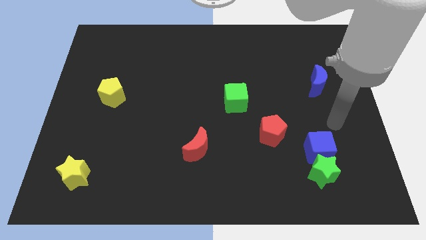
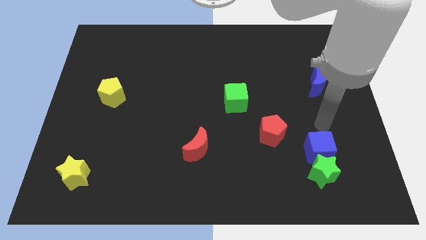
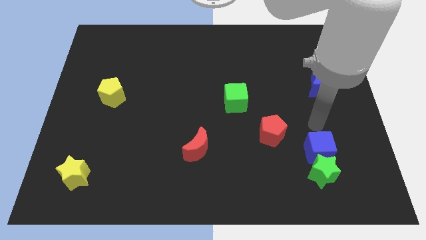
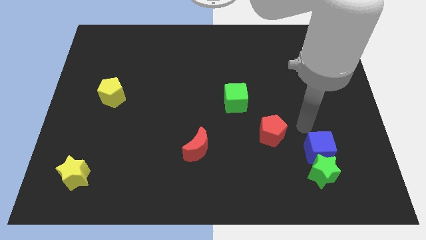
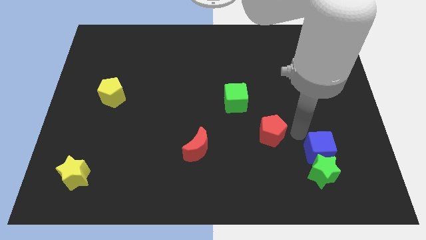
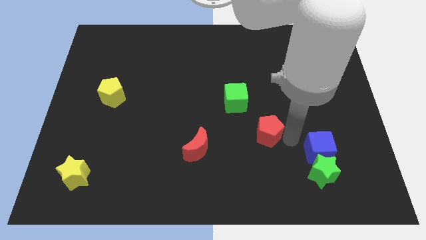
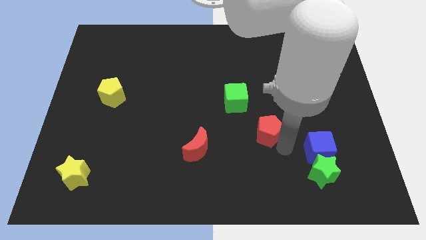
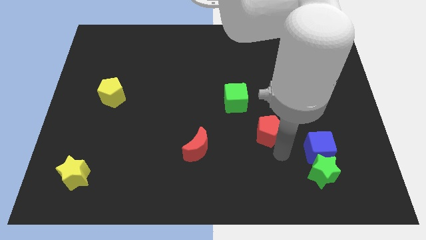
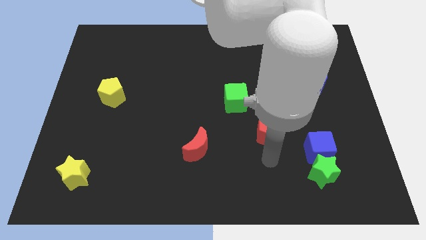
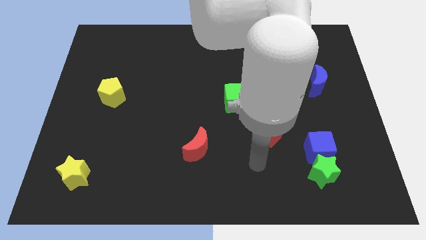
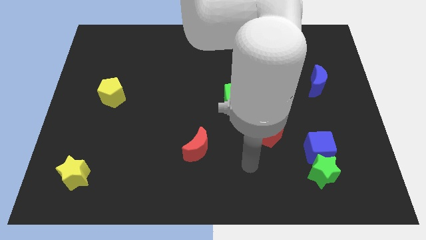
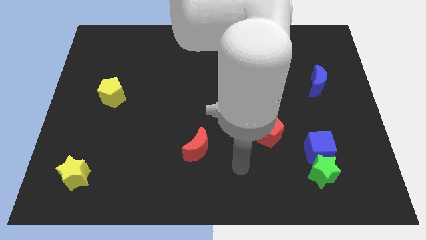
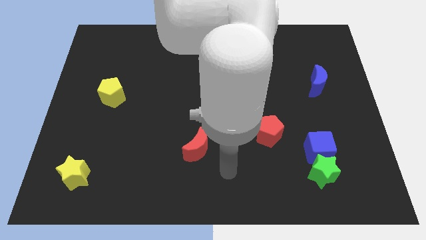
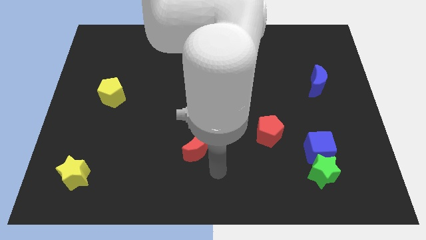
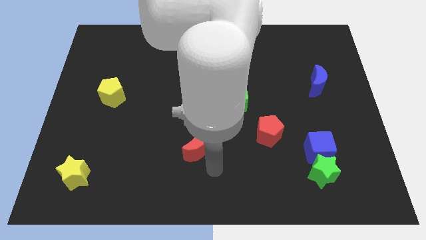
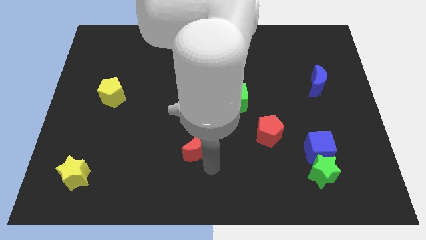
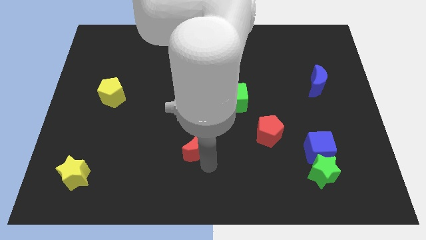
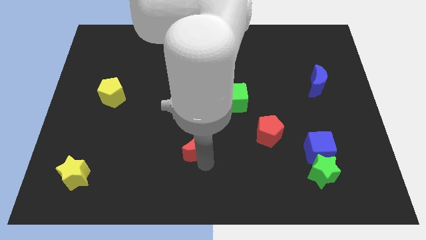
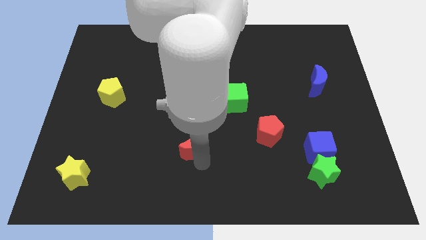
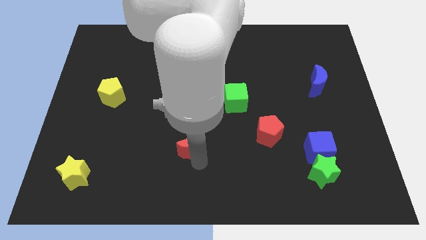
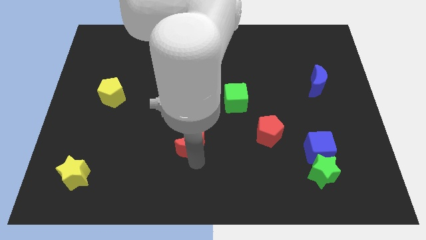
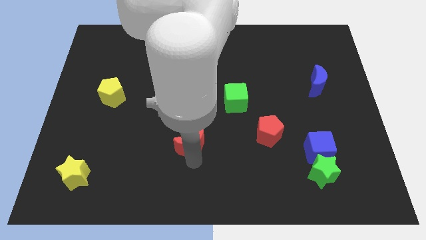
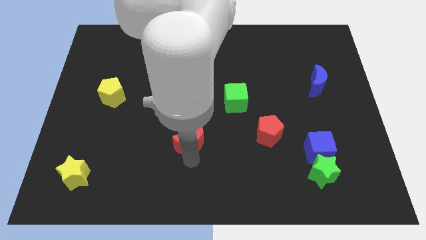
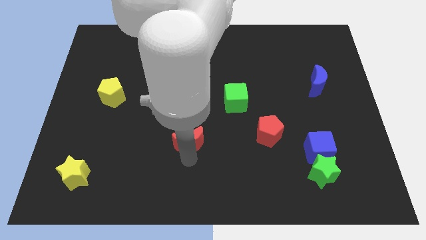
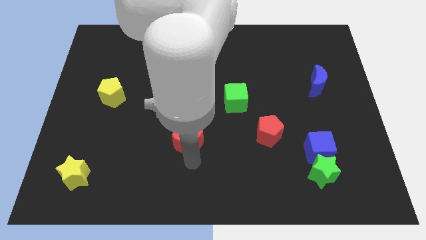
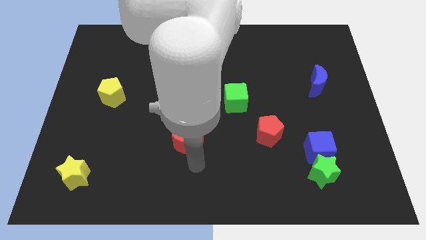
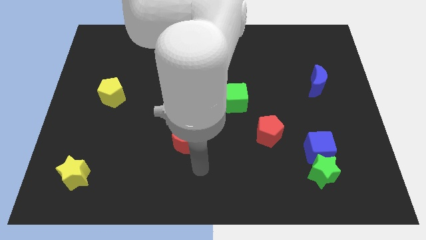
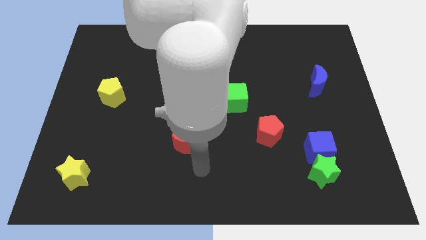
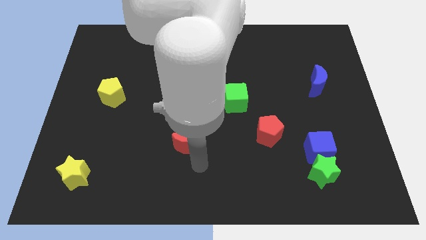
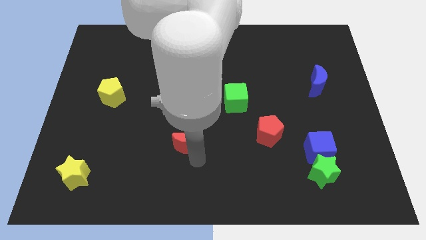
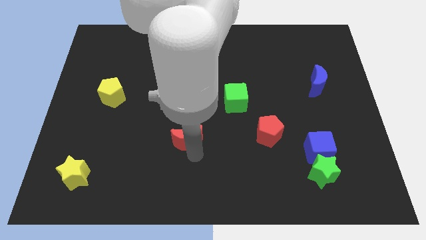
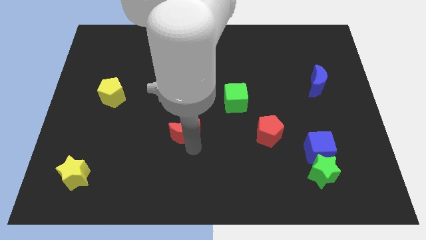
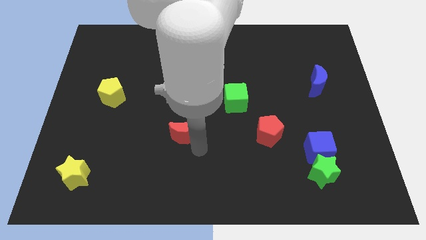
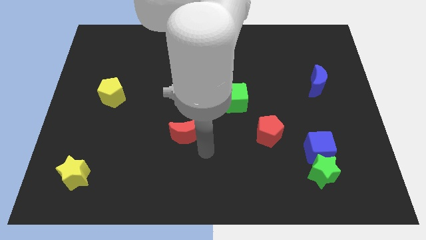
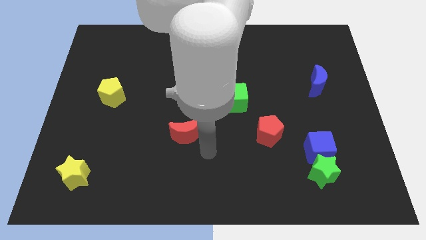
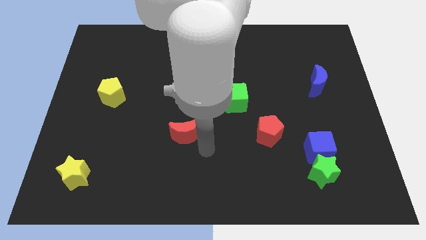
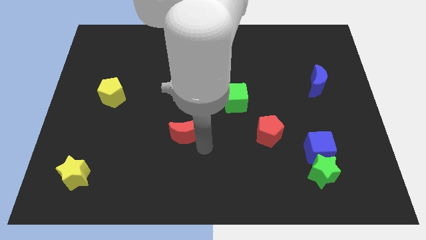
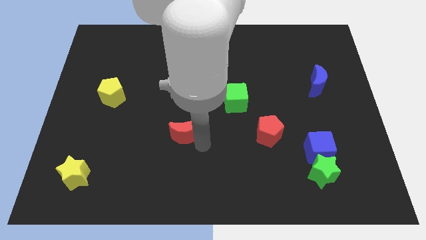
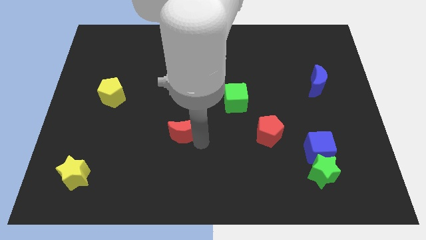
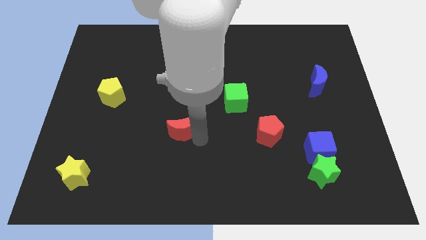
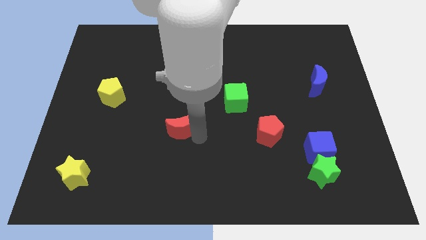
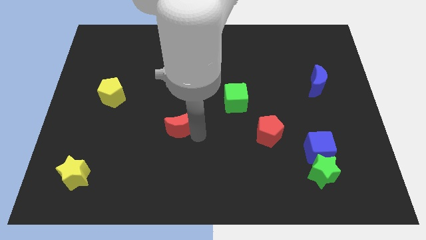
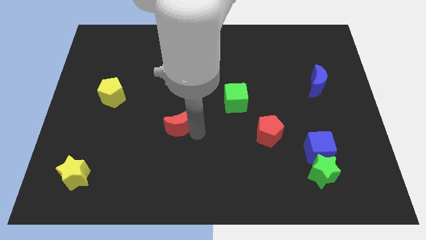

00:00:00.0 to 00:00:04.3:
push the red moon upwards and to the left a little bit

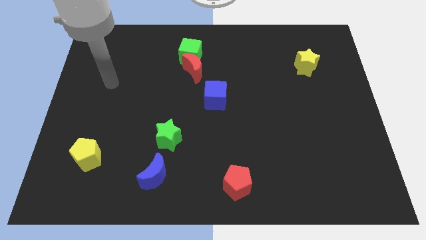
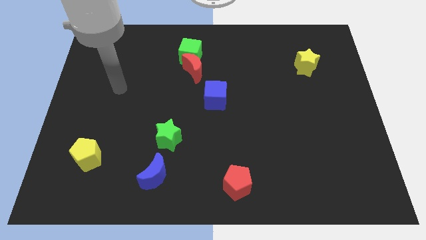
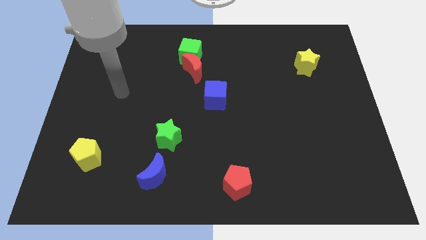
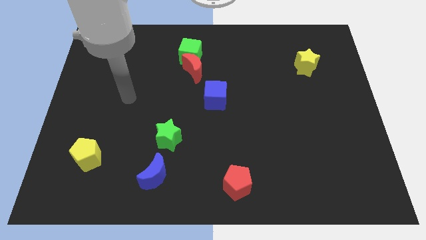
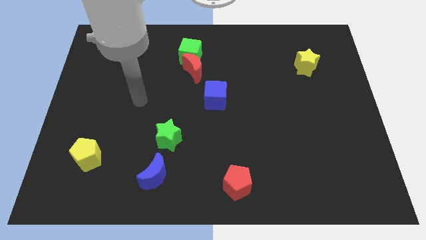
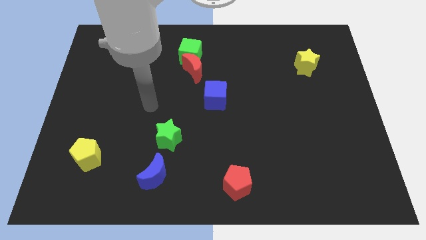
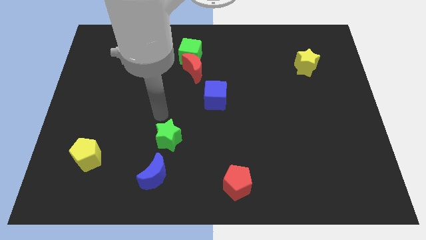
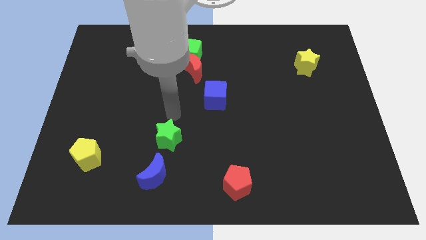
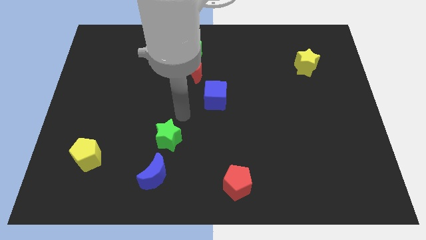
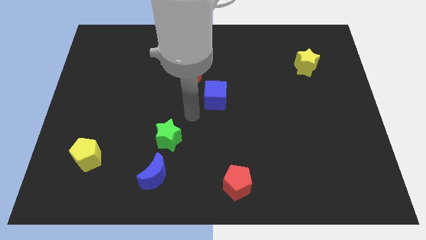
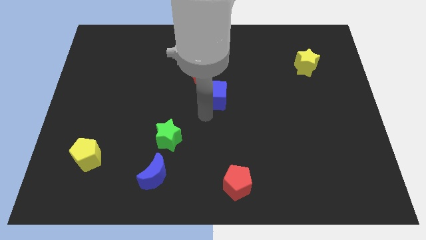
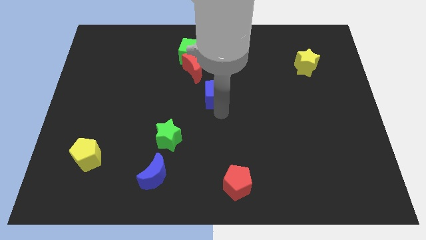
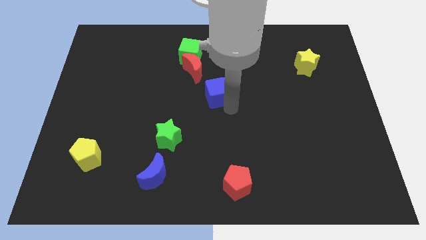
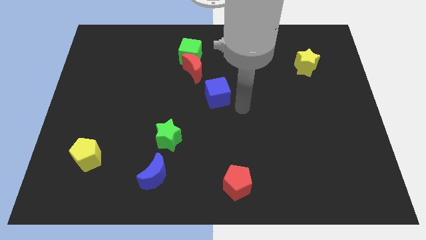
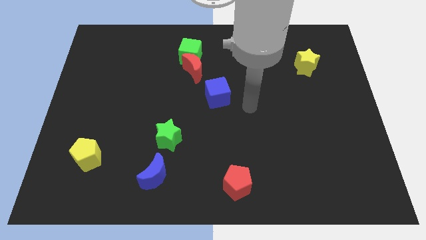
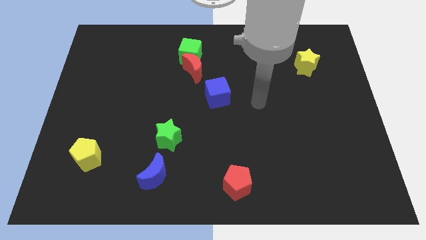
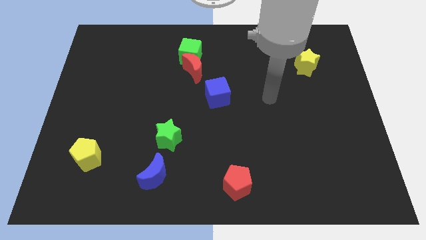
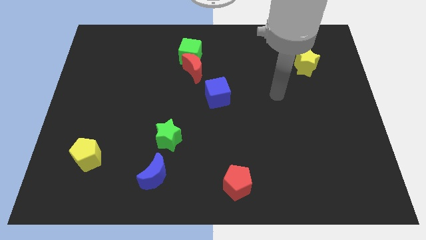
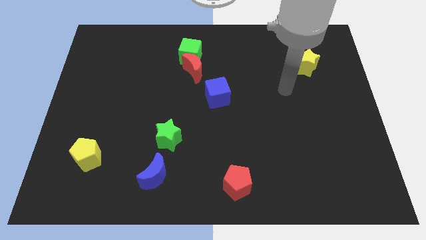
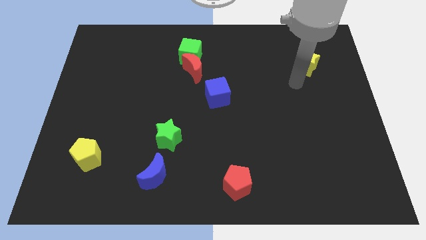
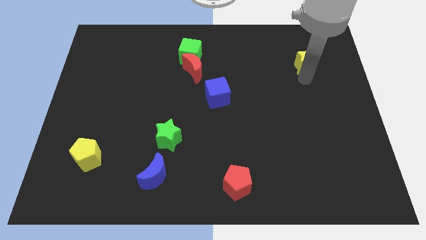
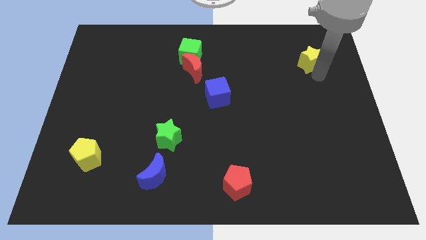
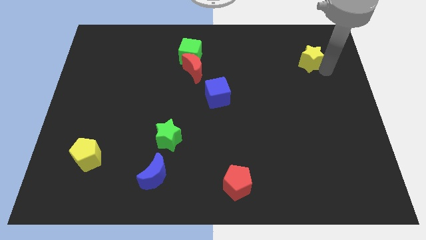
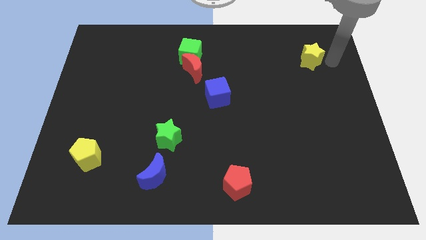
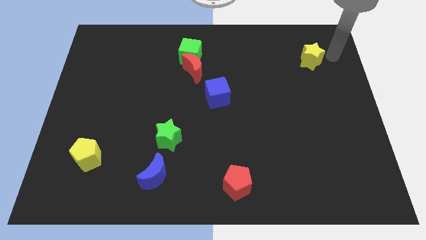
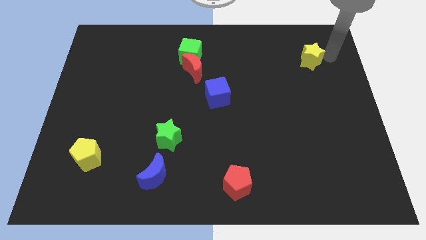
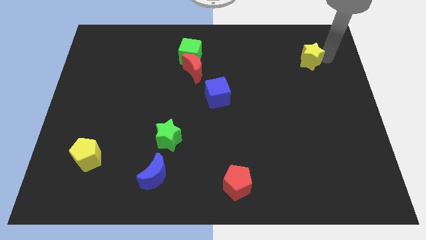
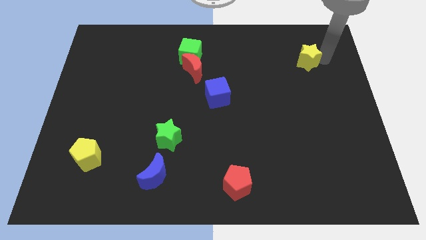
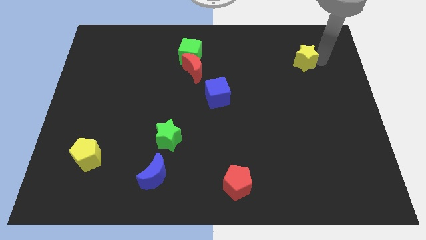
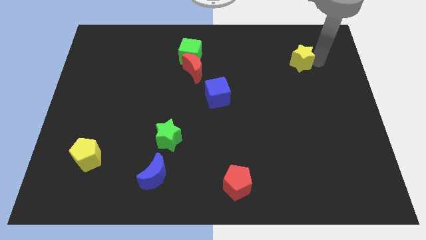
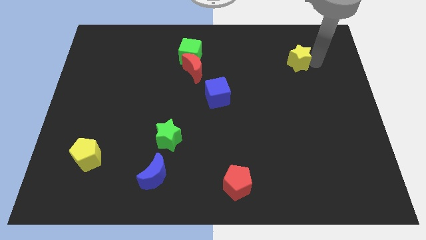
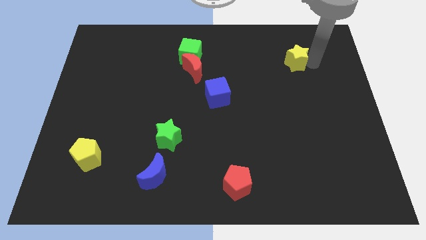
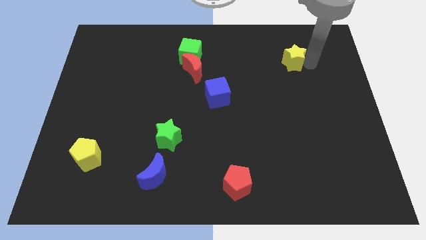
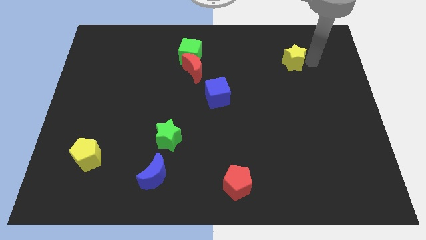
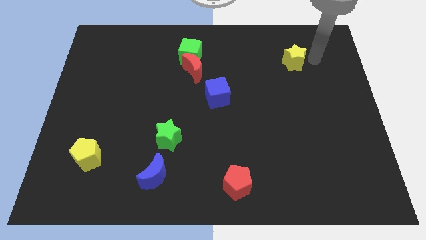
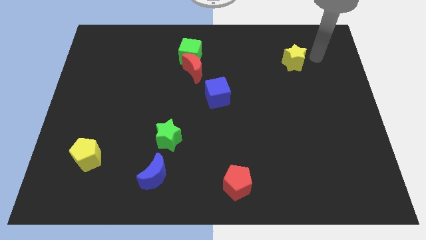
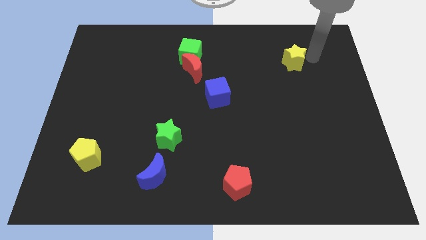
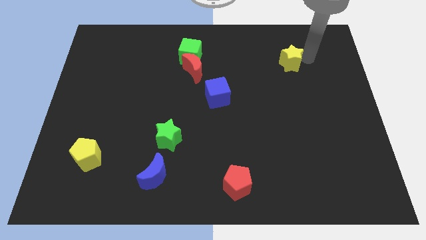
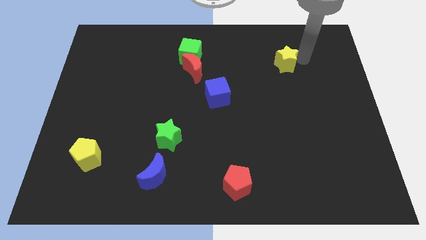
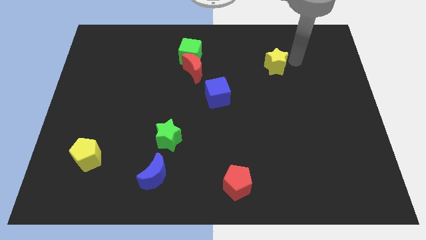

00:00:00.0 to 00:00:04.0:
push the yellow star somewhat to the left
